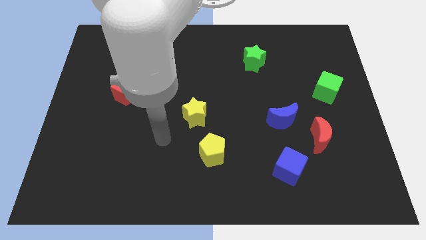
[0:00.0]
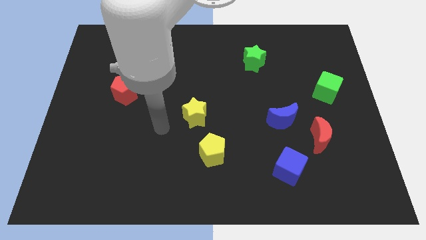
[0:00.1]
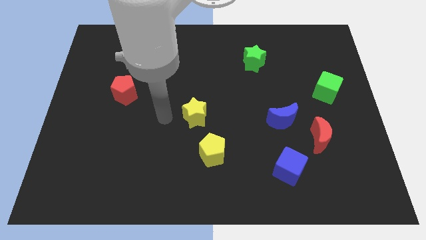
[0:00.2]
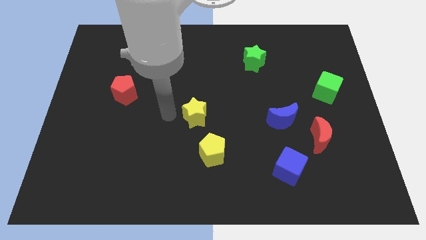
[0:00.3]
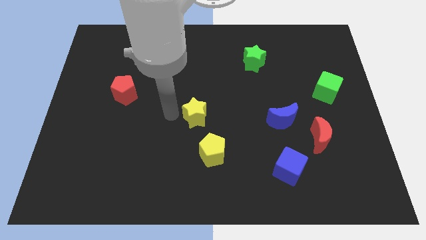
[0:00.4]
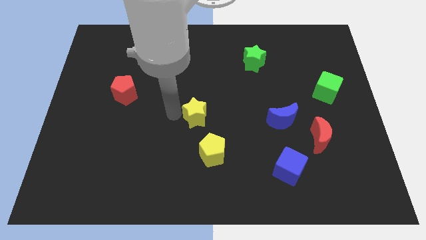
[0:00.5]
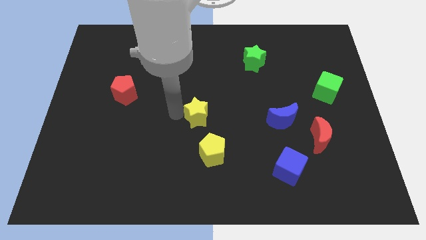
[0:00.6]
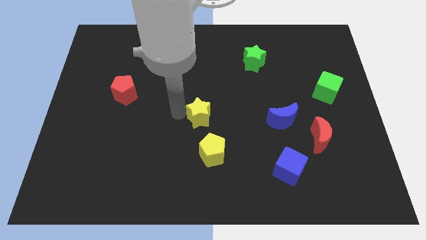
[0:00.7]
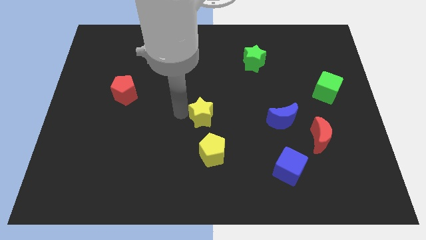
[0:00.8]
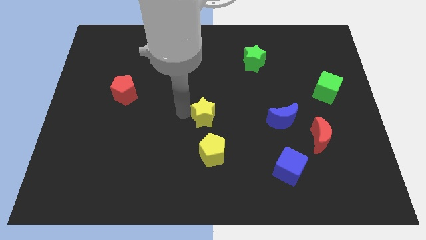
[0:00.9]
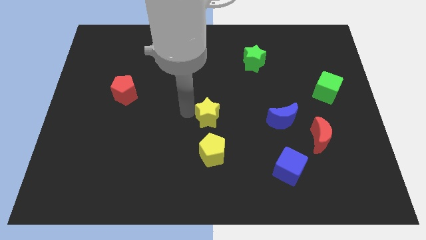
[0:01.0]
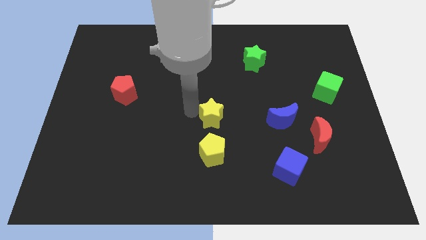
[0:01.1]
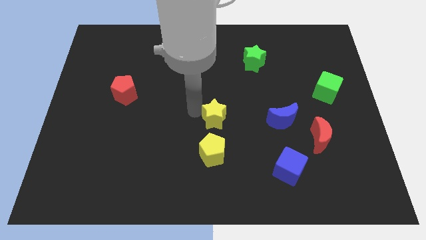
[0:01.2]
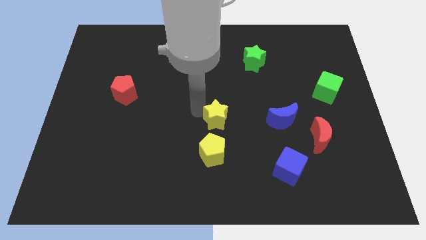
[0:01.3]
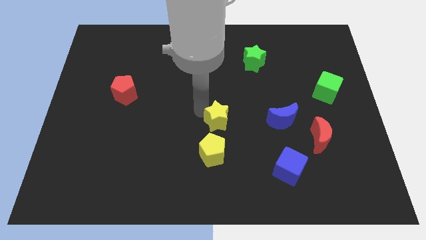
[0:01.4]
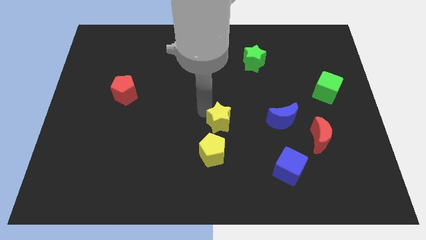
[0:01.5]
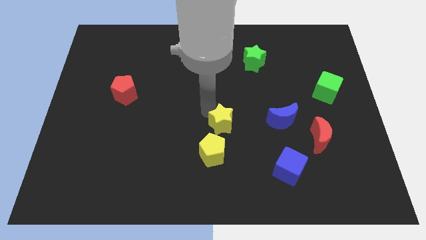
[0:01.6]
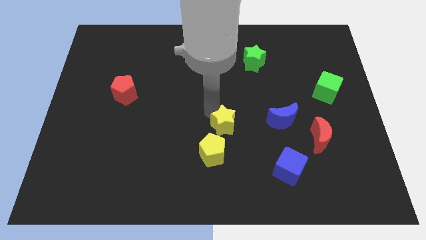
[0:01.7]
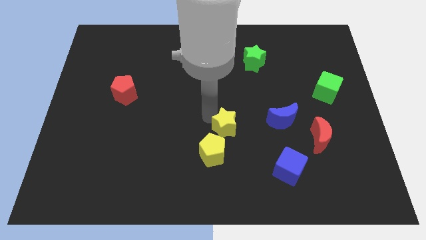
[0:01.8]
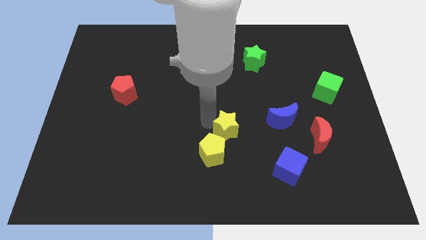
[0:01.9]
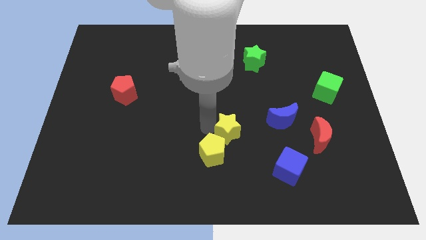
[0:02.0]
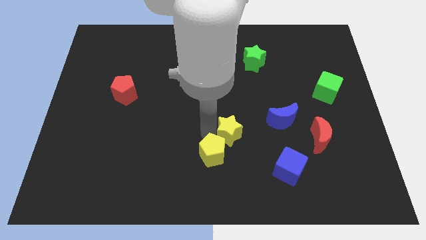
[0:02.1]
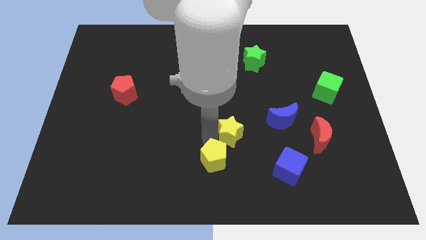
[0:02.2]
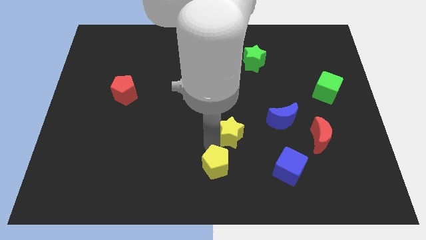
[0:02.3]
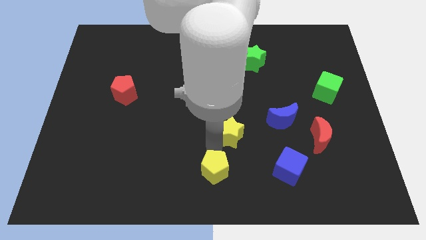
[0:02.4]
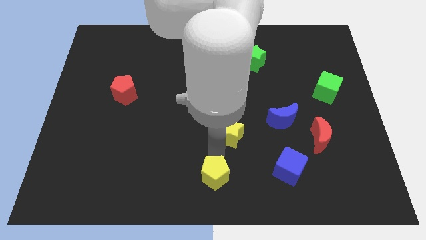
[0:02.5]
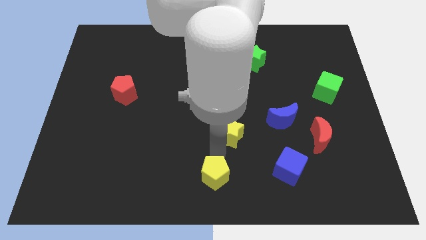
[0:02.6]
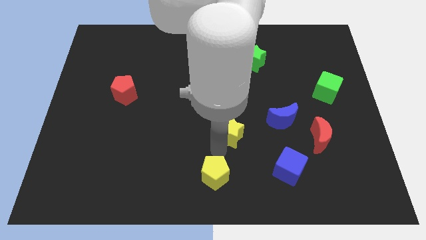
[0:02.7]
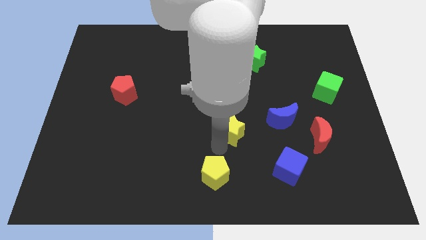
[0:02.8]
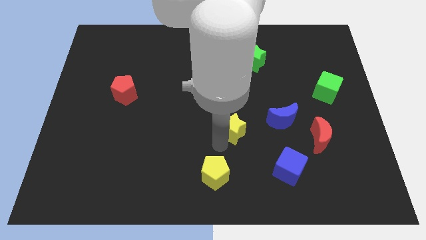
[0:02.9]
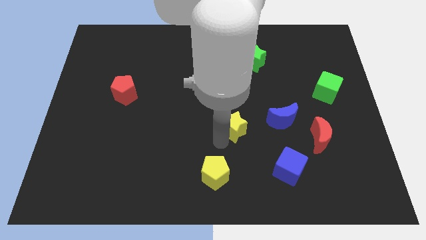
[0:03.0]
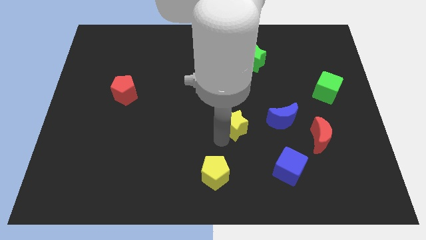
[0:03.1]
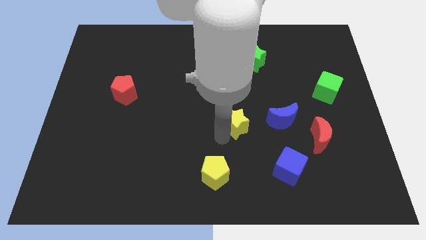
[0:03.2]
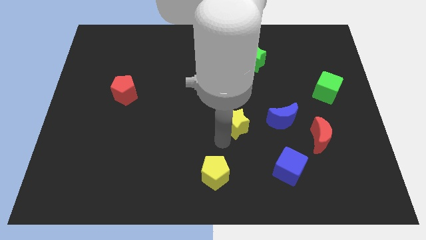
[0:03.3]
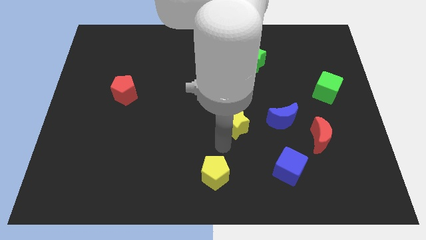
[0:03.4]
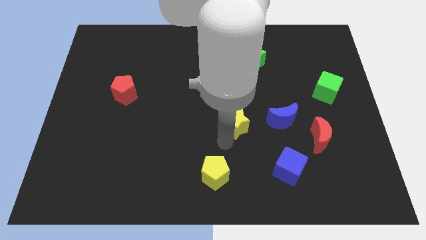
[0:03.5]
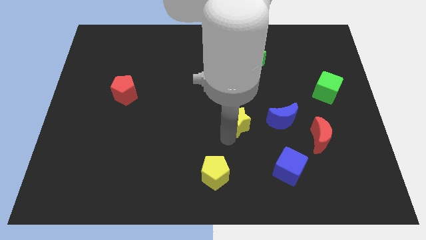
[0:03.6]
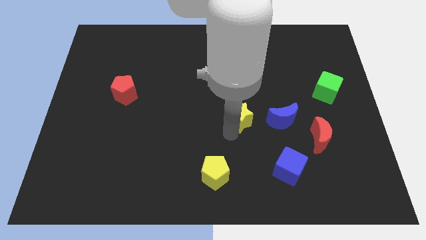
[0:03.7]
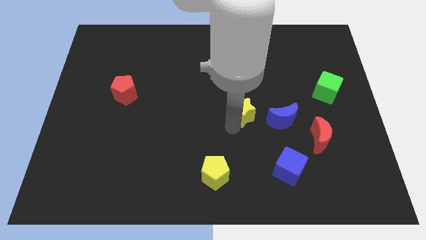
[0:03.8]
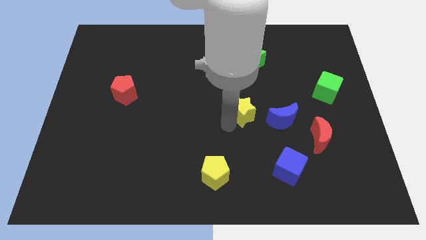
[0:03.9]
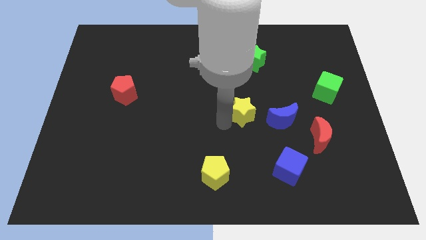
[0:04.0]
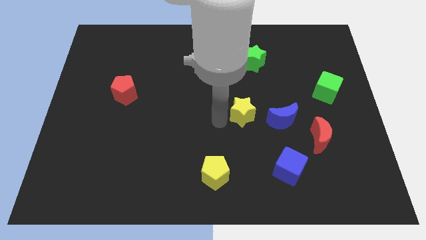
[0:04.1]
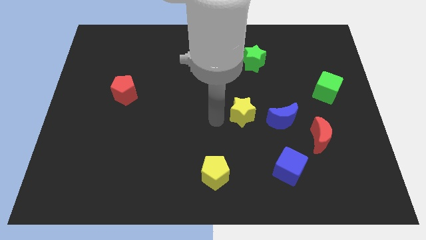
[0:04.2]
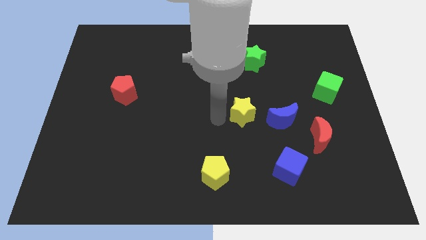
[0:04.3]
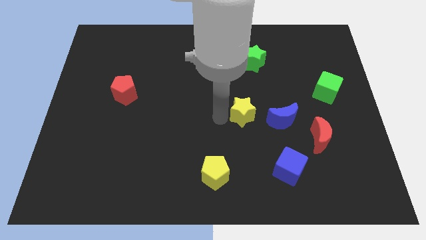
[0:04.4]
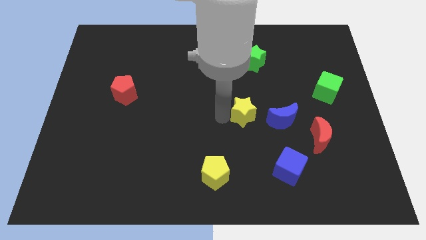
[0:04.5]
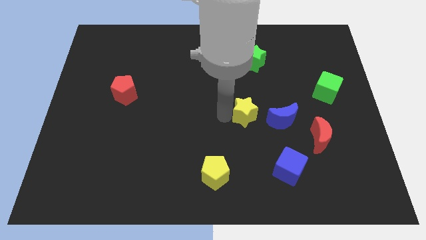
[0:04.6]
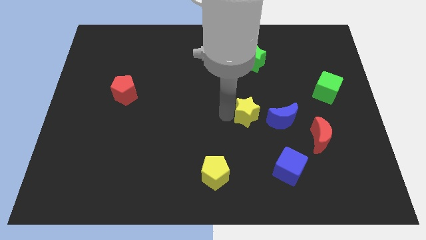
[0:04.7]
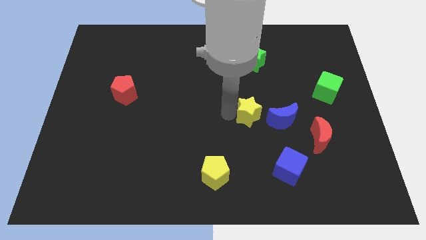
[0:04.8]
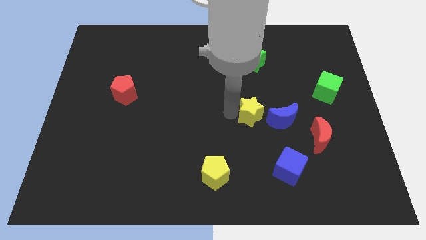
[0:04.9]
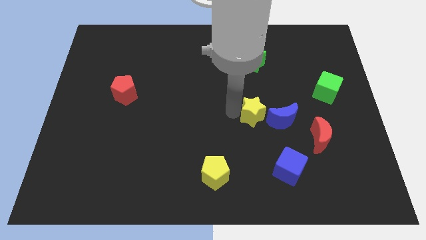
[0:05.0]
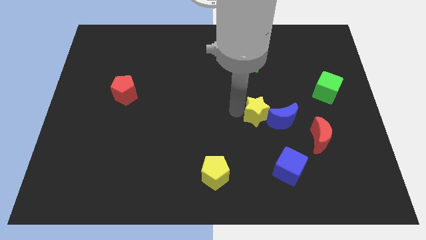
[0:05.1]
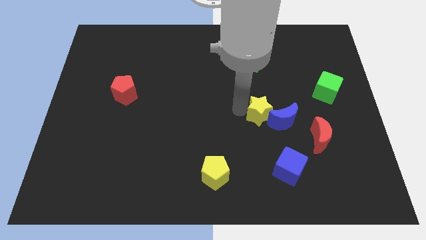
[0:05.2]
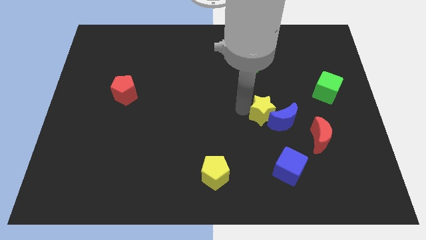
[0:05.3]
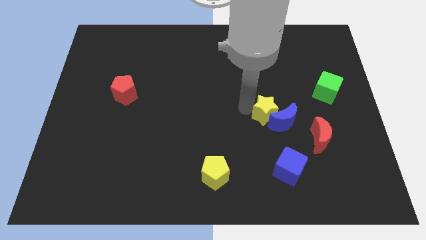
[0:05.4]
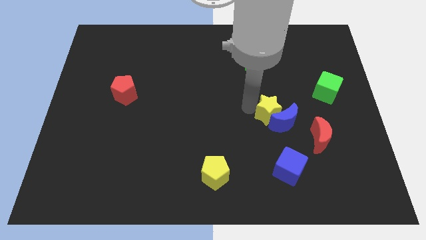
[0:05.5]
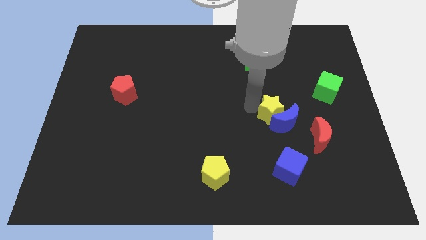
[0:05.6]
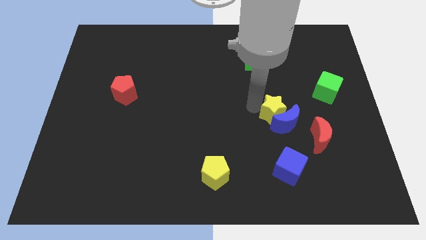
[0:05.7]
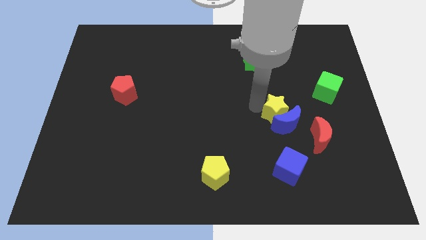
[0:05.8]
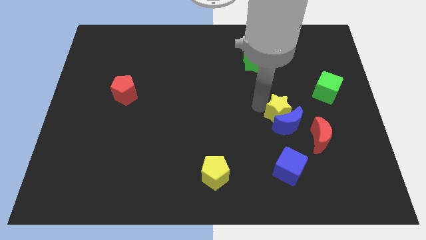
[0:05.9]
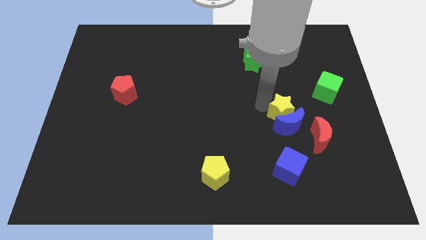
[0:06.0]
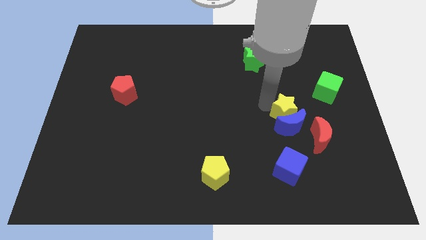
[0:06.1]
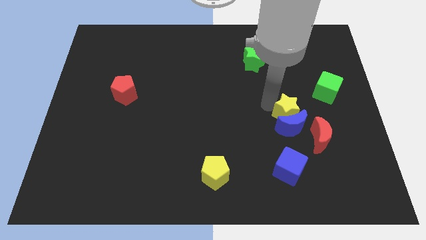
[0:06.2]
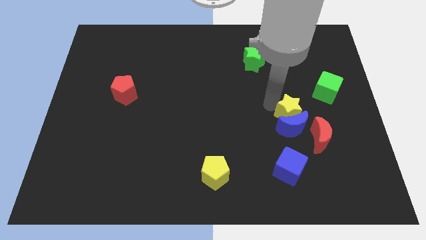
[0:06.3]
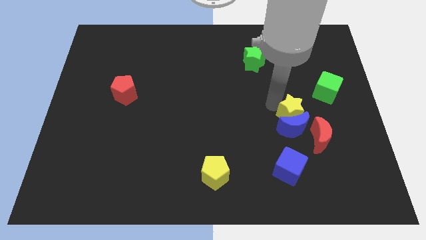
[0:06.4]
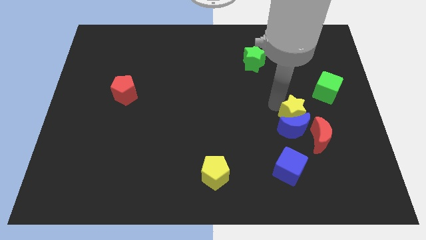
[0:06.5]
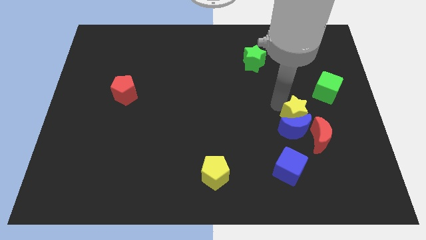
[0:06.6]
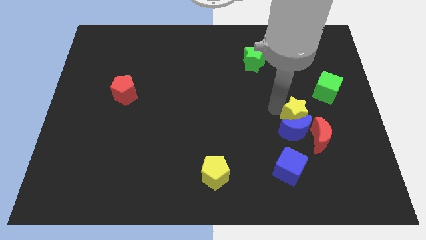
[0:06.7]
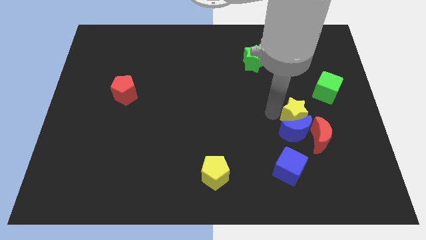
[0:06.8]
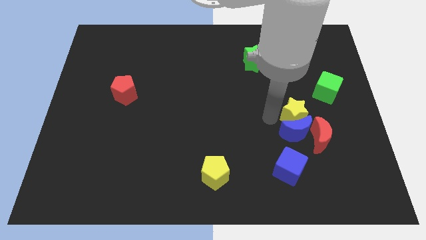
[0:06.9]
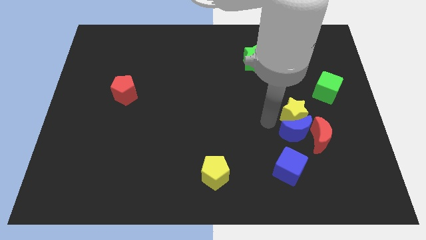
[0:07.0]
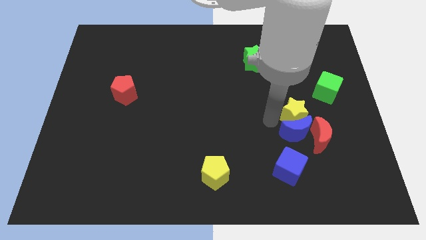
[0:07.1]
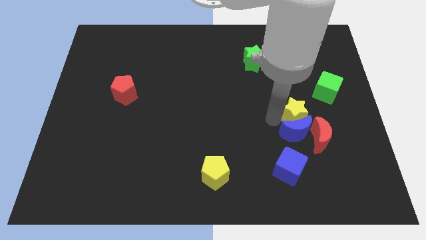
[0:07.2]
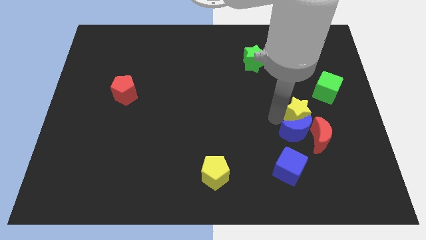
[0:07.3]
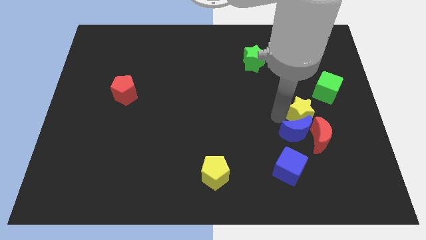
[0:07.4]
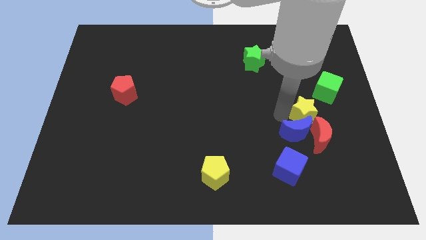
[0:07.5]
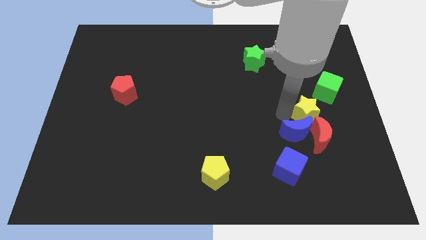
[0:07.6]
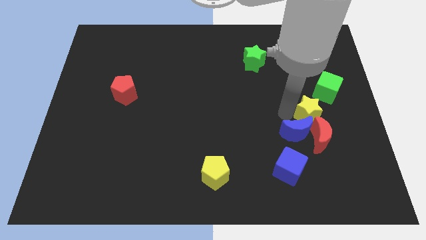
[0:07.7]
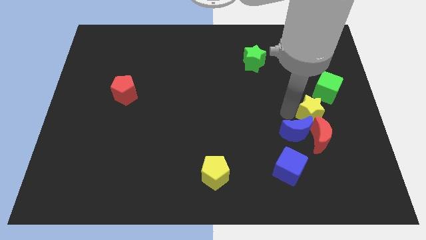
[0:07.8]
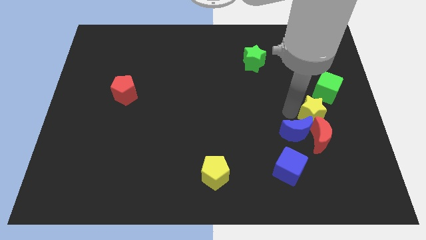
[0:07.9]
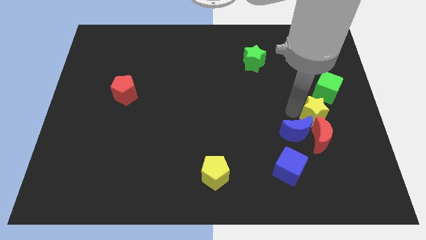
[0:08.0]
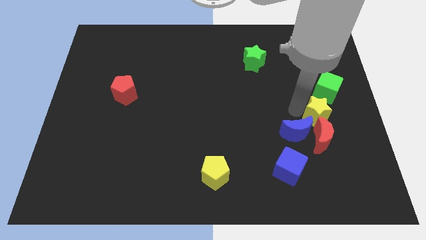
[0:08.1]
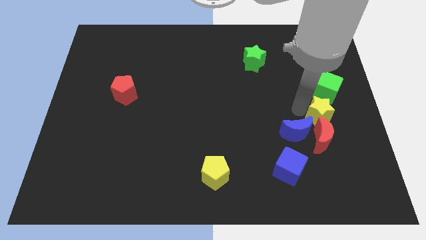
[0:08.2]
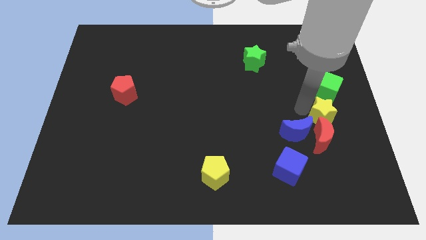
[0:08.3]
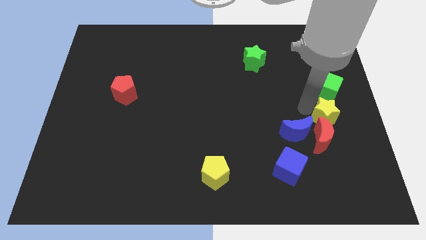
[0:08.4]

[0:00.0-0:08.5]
move the yellow star to the center right
